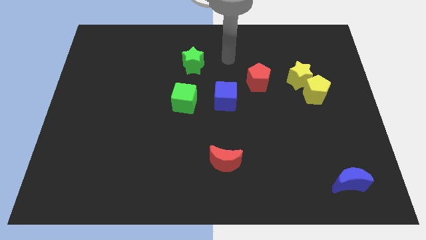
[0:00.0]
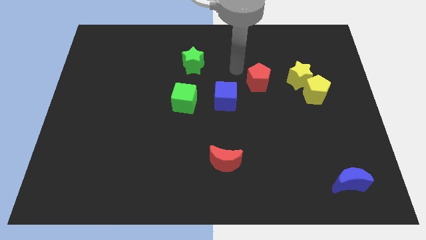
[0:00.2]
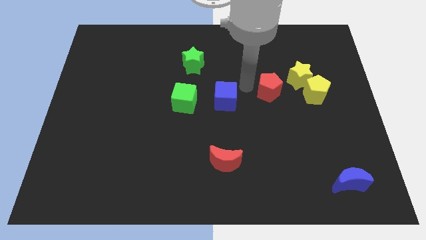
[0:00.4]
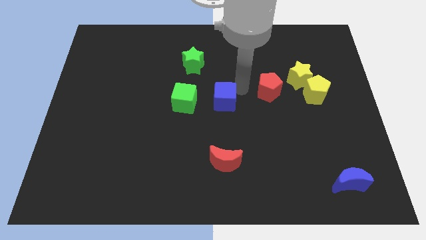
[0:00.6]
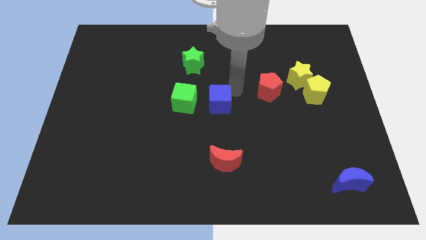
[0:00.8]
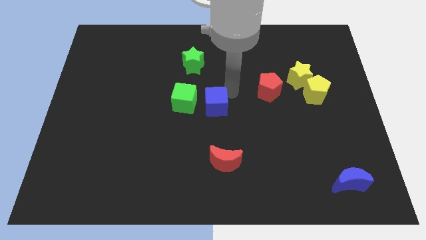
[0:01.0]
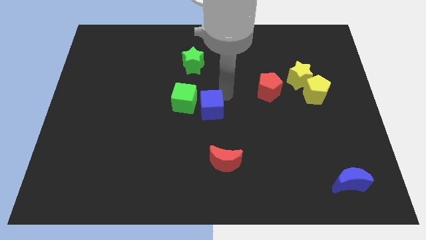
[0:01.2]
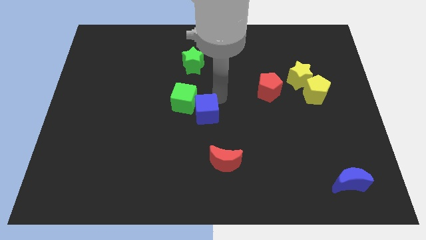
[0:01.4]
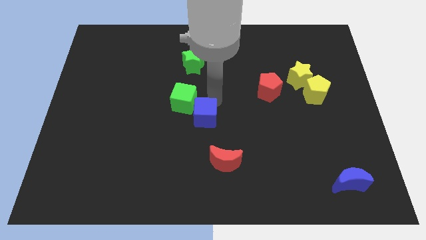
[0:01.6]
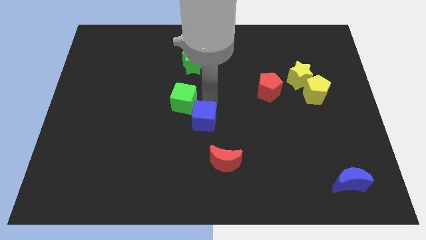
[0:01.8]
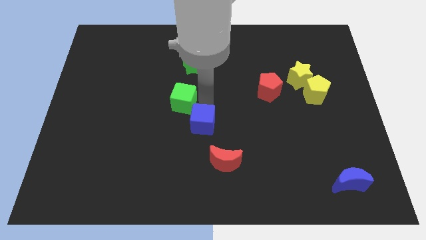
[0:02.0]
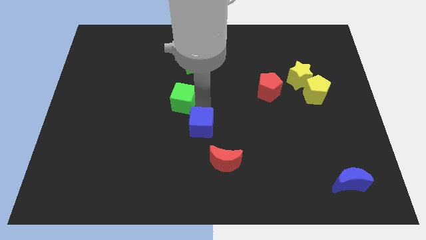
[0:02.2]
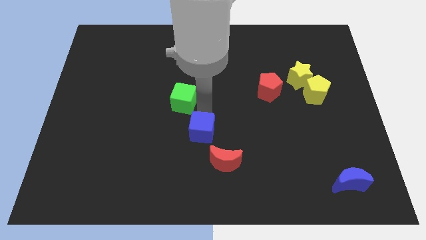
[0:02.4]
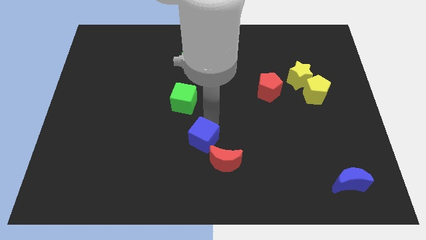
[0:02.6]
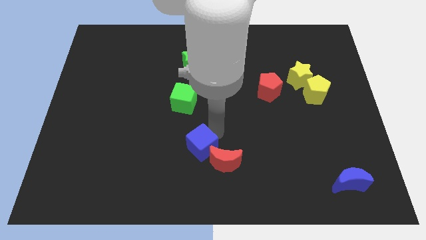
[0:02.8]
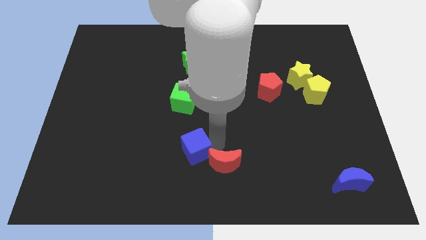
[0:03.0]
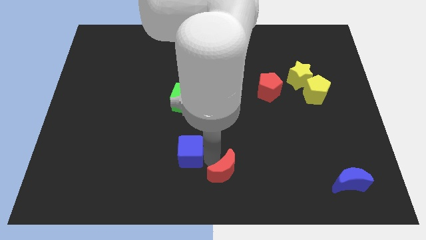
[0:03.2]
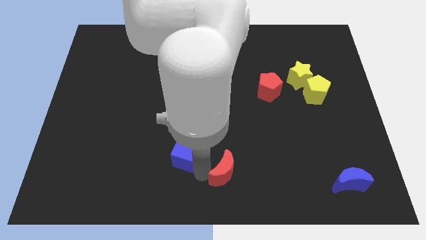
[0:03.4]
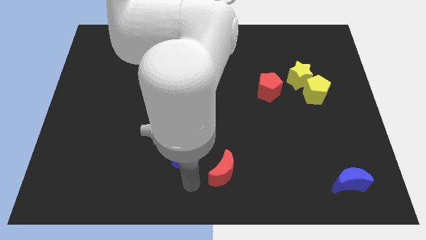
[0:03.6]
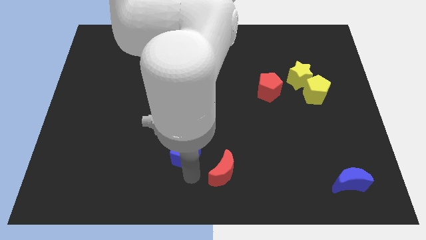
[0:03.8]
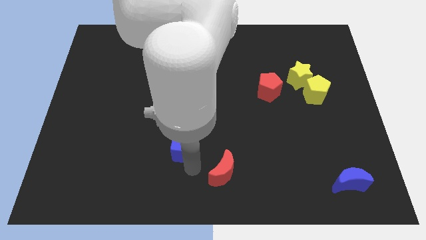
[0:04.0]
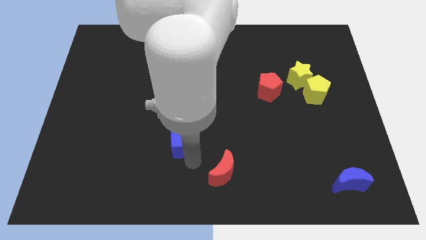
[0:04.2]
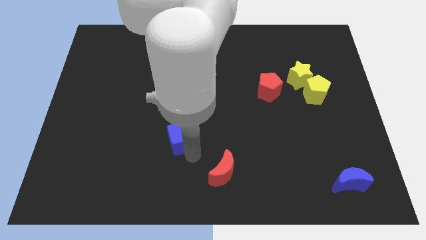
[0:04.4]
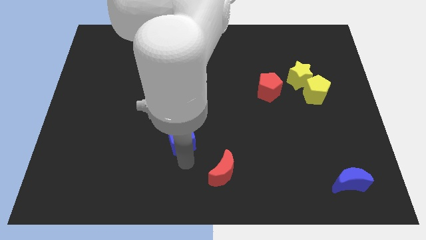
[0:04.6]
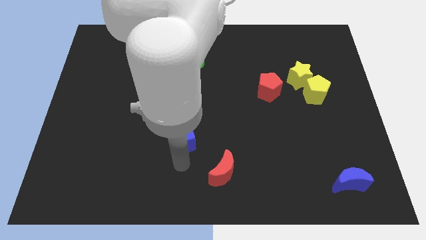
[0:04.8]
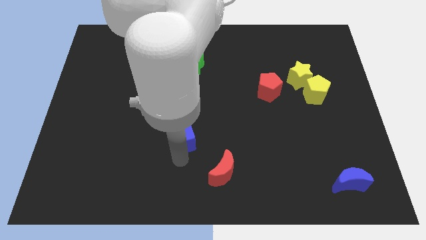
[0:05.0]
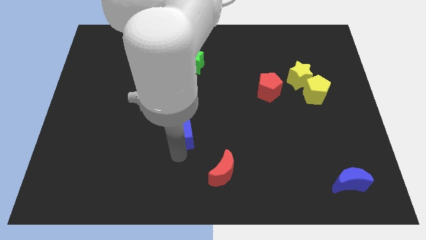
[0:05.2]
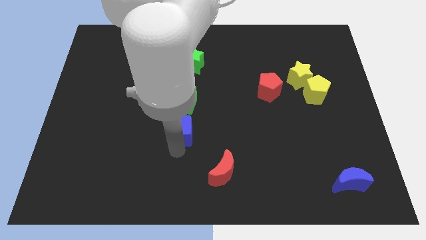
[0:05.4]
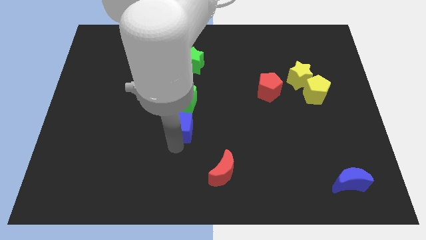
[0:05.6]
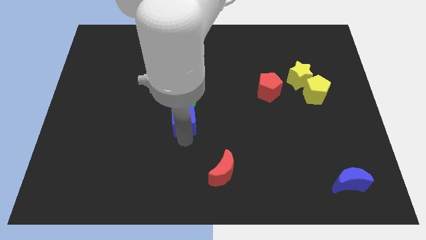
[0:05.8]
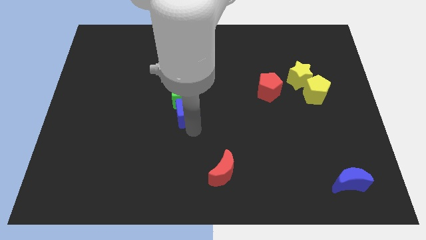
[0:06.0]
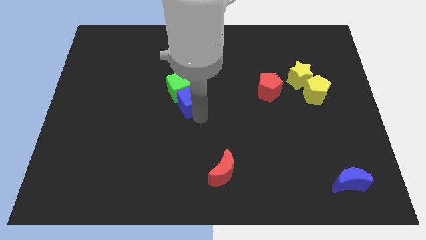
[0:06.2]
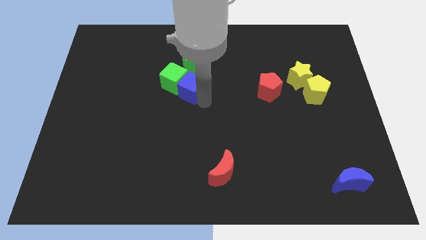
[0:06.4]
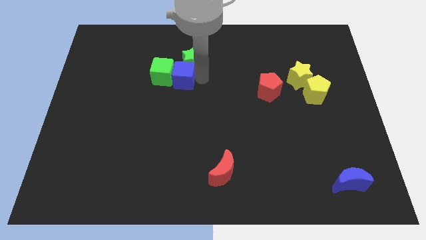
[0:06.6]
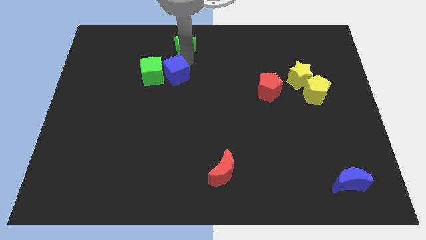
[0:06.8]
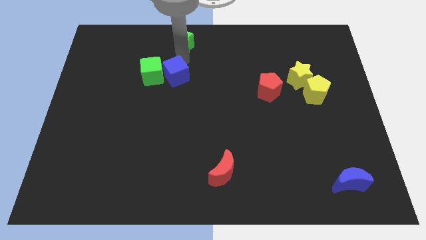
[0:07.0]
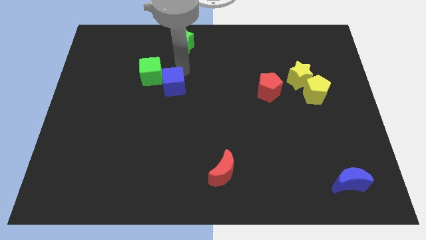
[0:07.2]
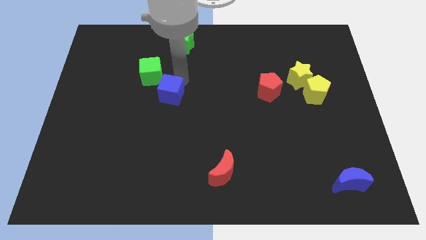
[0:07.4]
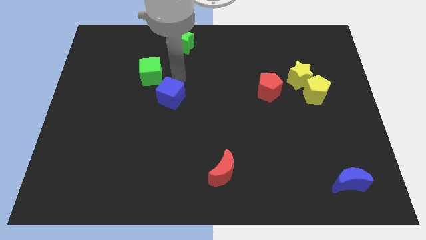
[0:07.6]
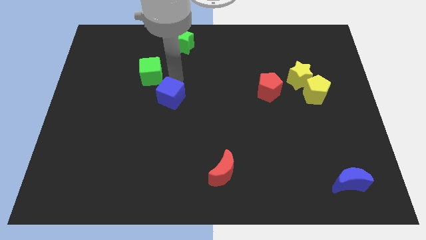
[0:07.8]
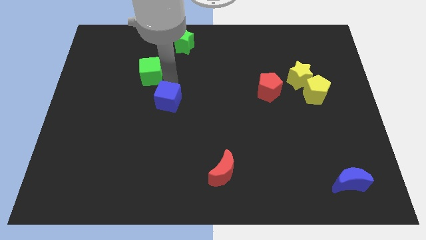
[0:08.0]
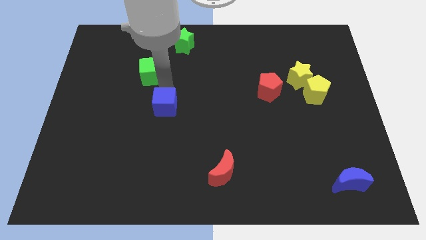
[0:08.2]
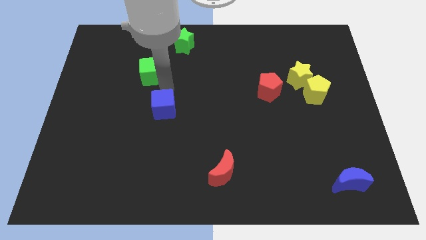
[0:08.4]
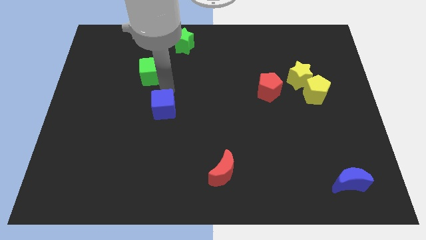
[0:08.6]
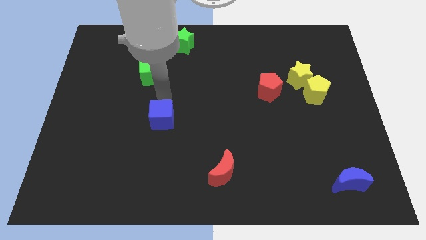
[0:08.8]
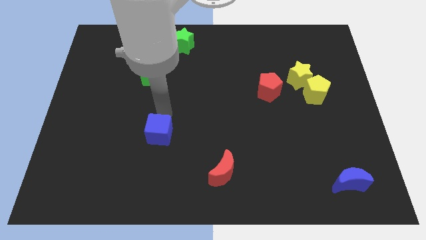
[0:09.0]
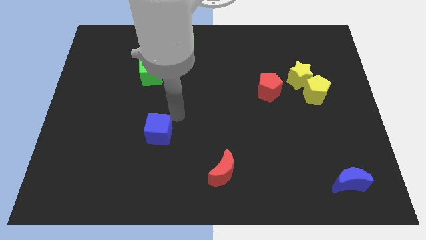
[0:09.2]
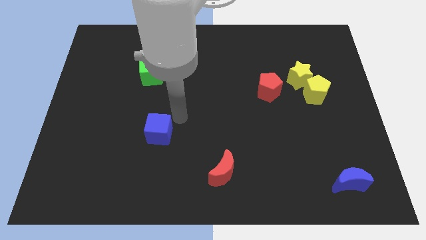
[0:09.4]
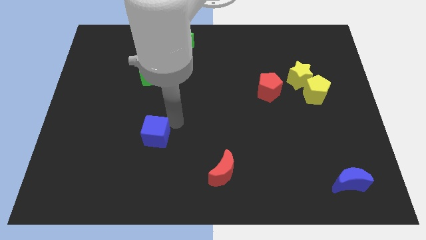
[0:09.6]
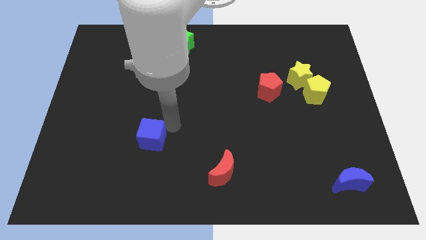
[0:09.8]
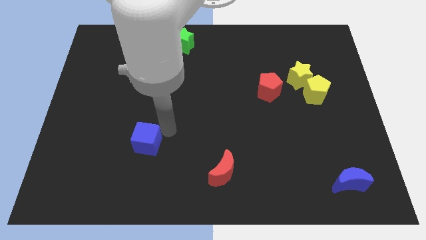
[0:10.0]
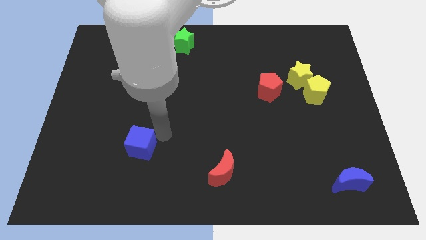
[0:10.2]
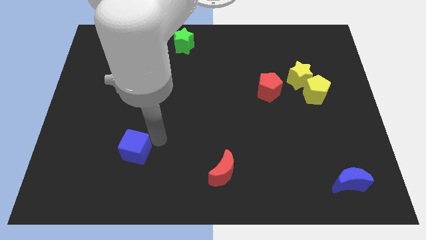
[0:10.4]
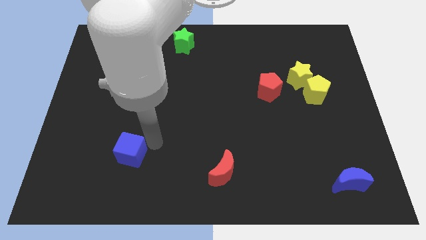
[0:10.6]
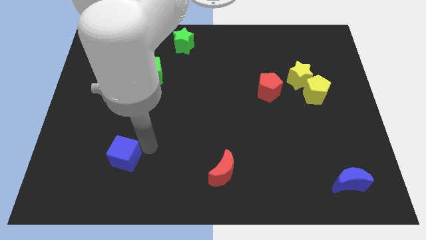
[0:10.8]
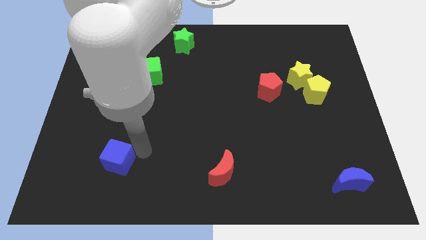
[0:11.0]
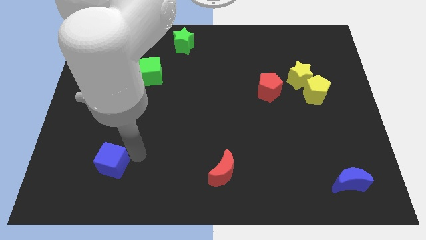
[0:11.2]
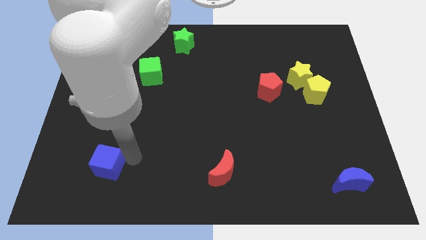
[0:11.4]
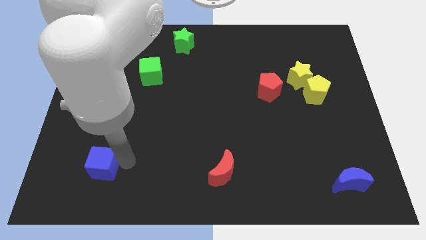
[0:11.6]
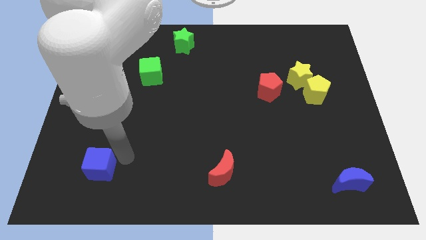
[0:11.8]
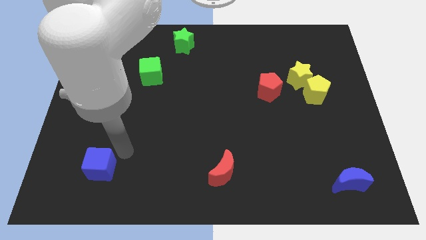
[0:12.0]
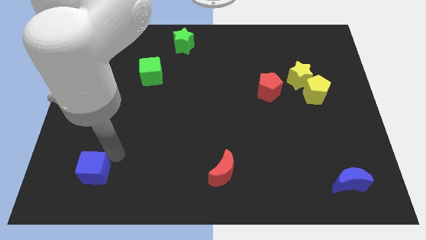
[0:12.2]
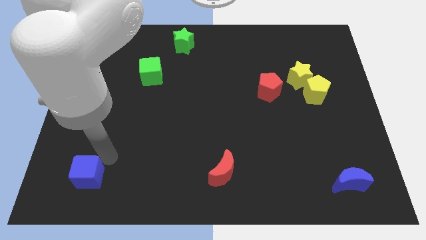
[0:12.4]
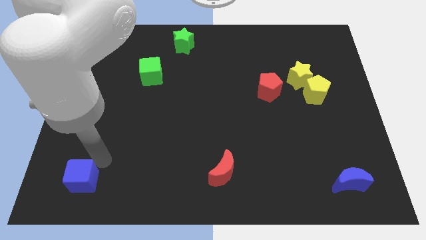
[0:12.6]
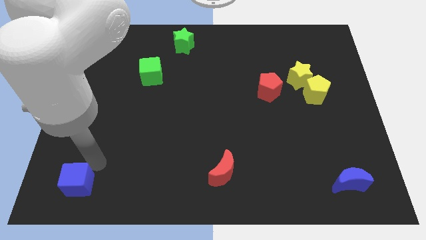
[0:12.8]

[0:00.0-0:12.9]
slide the blue cube to the bottom left corner
